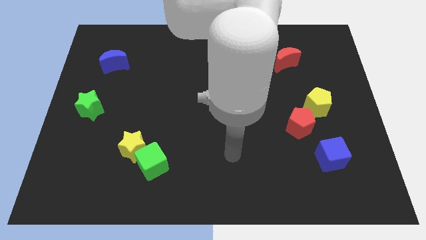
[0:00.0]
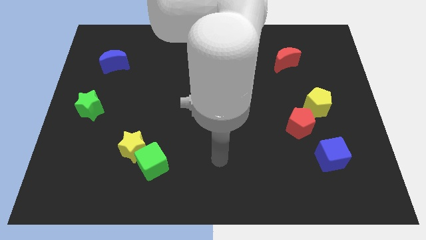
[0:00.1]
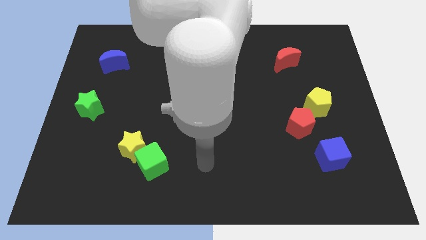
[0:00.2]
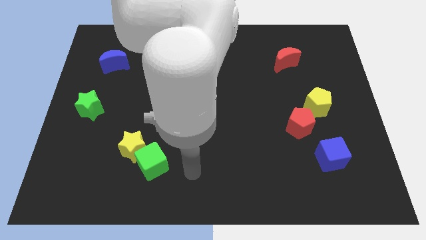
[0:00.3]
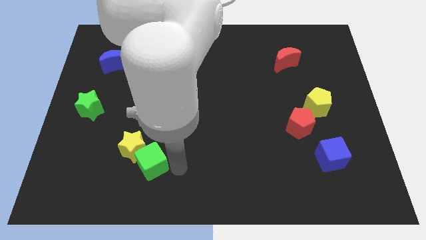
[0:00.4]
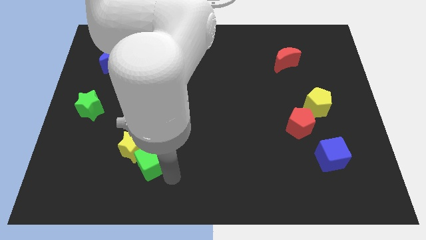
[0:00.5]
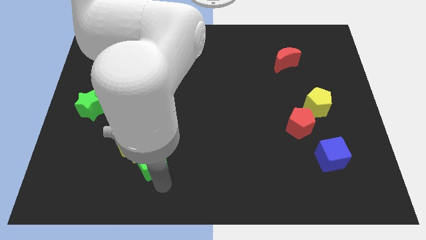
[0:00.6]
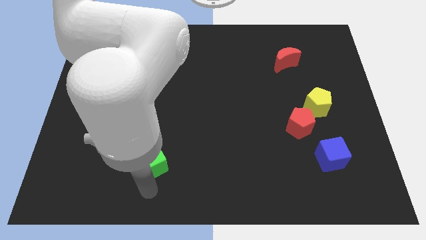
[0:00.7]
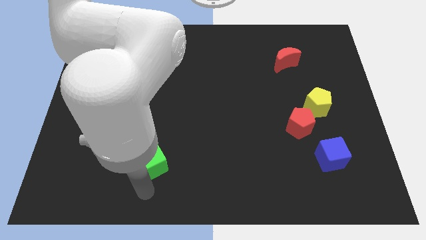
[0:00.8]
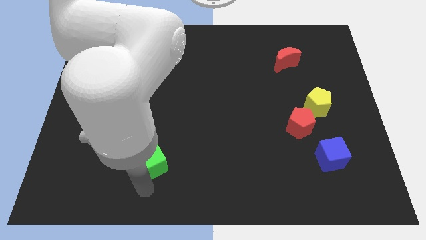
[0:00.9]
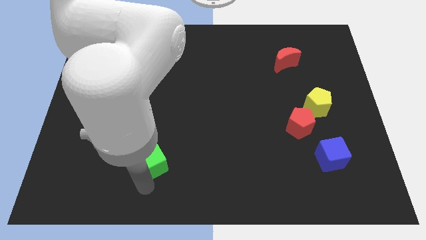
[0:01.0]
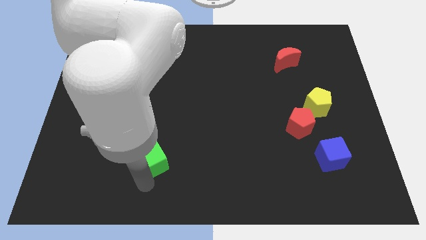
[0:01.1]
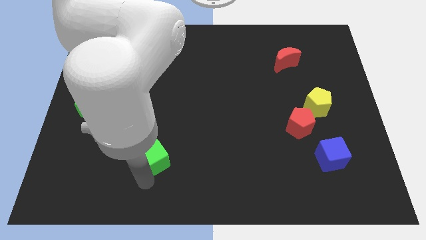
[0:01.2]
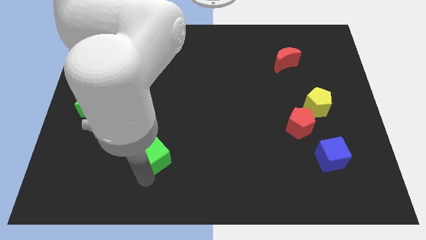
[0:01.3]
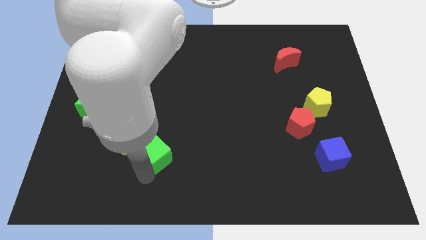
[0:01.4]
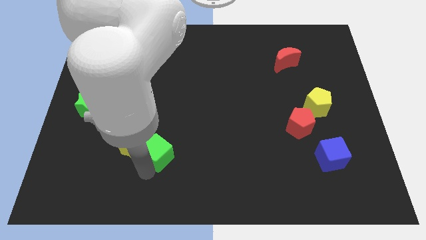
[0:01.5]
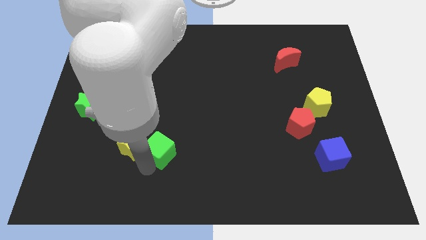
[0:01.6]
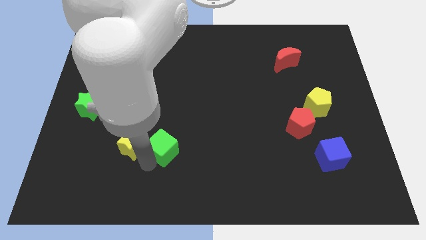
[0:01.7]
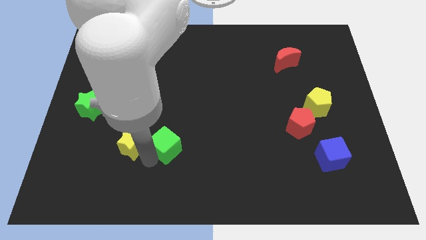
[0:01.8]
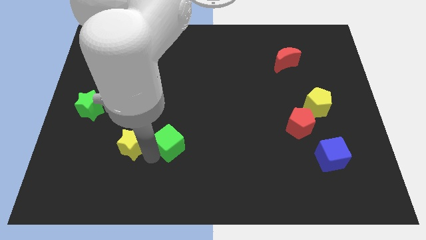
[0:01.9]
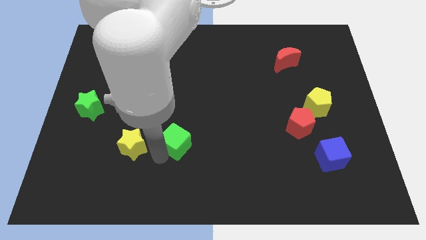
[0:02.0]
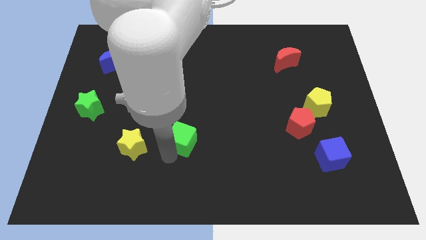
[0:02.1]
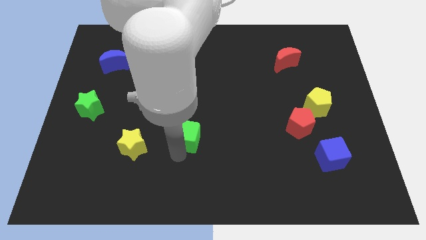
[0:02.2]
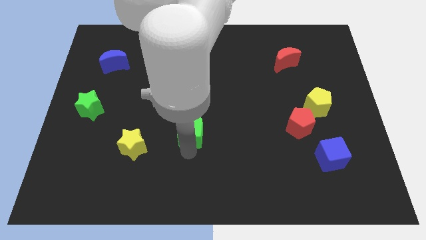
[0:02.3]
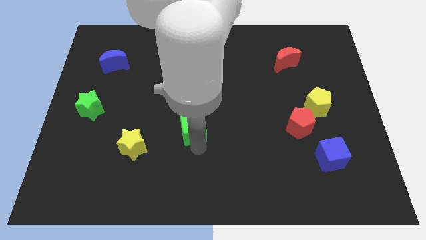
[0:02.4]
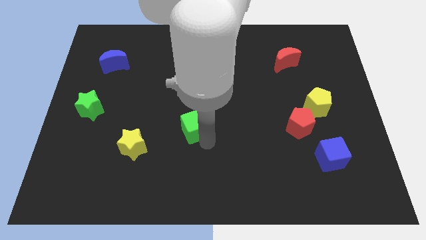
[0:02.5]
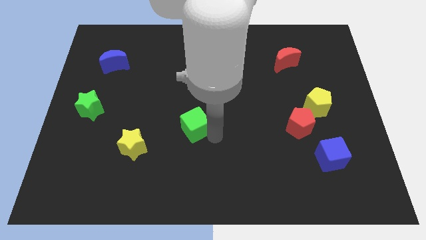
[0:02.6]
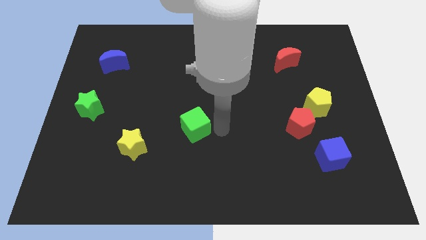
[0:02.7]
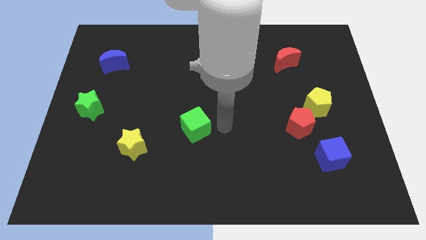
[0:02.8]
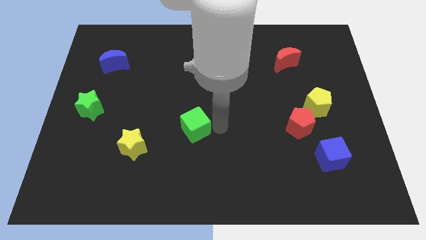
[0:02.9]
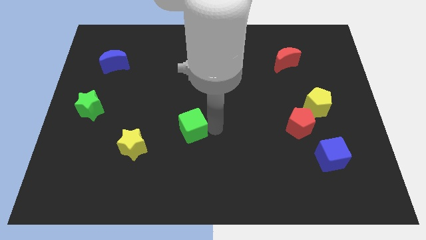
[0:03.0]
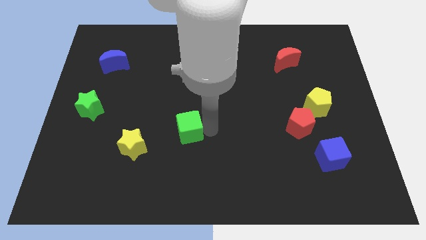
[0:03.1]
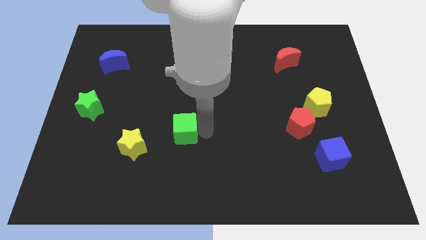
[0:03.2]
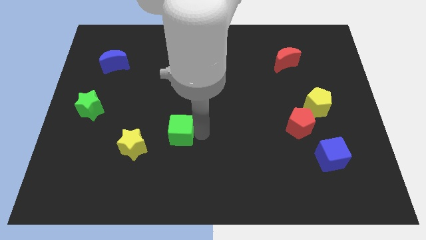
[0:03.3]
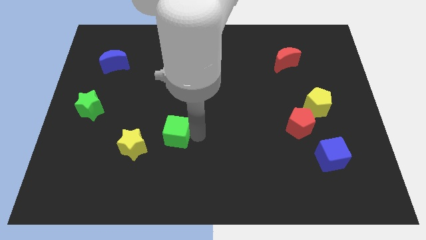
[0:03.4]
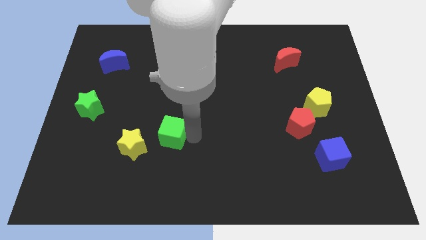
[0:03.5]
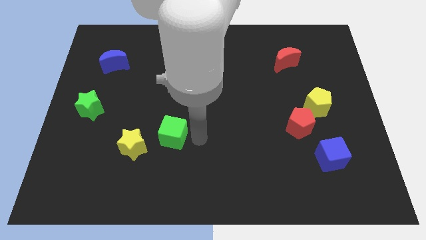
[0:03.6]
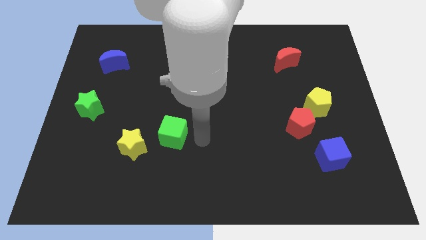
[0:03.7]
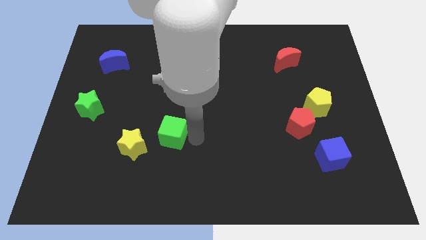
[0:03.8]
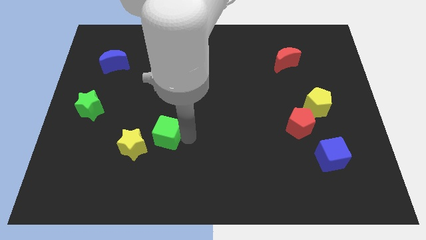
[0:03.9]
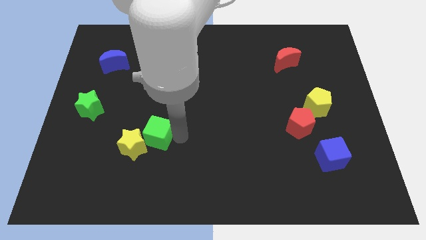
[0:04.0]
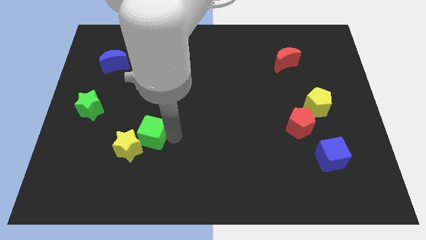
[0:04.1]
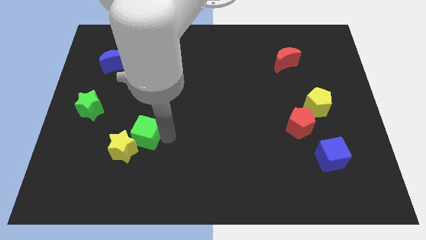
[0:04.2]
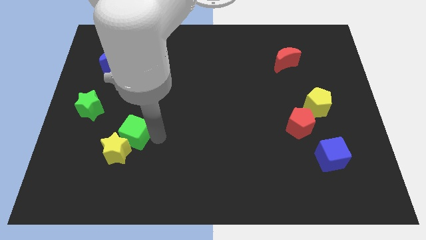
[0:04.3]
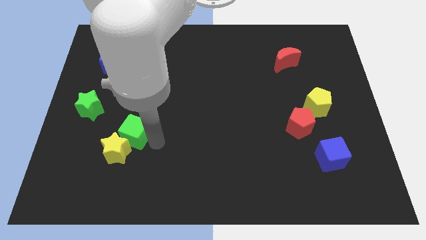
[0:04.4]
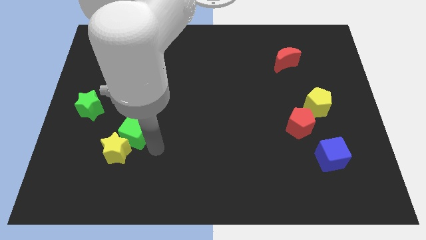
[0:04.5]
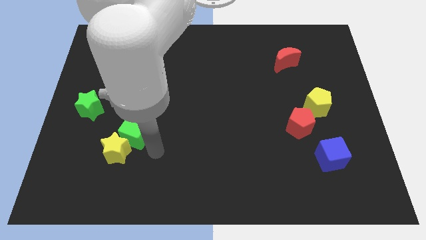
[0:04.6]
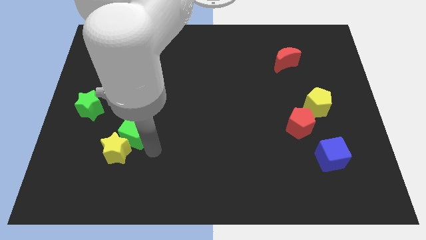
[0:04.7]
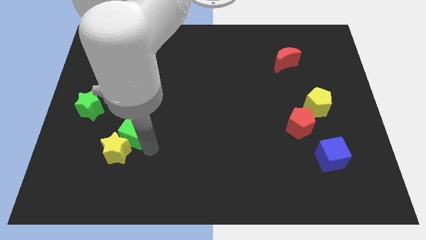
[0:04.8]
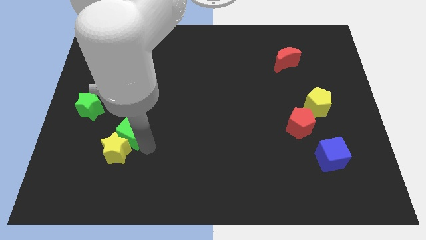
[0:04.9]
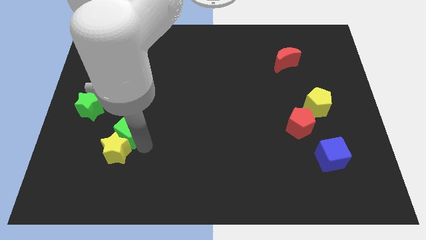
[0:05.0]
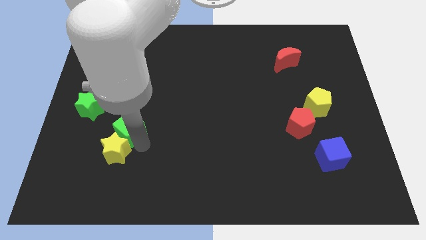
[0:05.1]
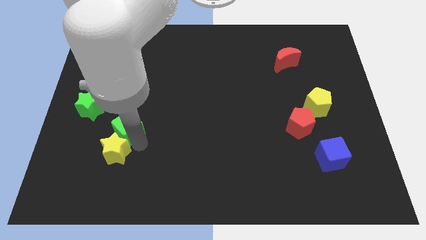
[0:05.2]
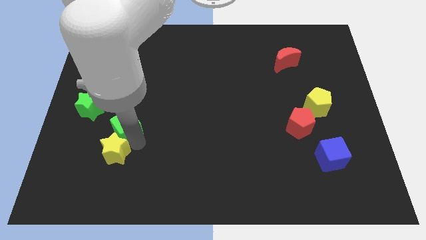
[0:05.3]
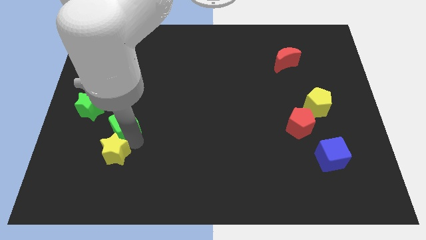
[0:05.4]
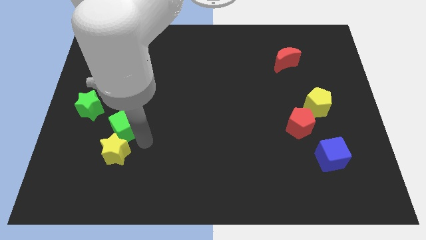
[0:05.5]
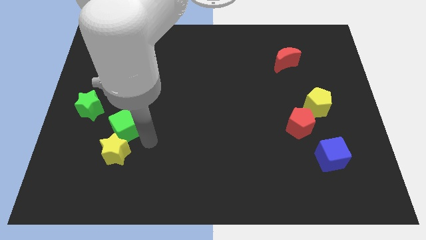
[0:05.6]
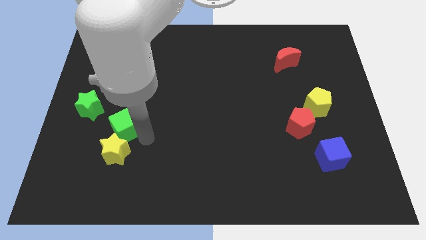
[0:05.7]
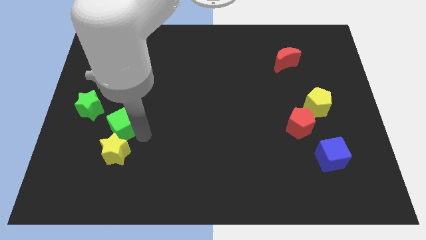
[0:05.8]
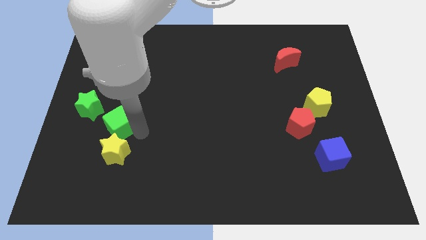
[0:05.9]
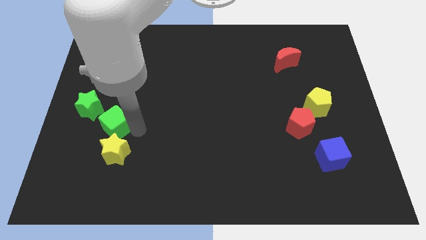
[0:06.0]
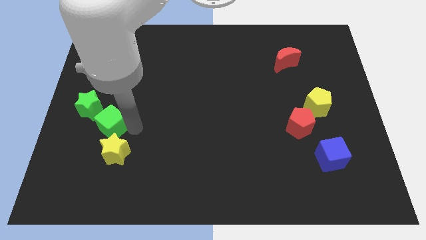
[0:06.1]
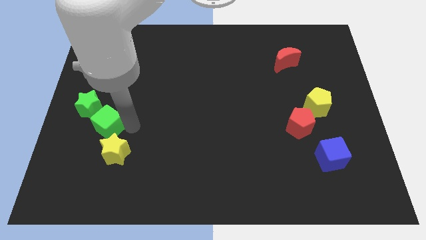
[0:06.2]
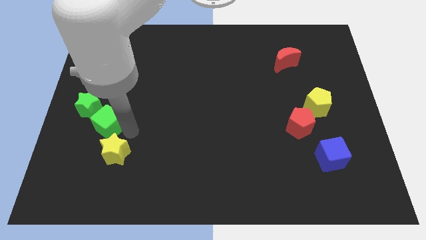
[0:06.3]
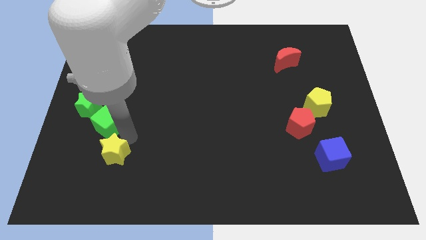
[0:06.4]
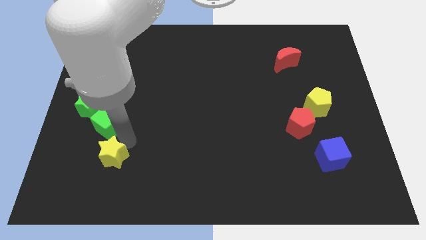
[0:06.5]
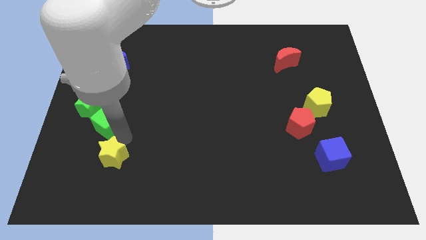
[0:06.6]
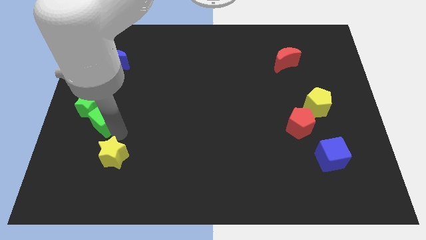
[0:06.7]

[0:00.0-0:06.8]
slide the green cube close to the green star
